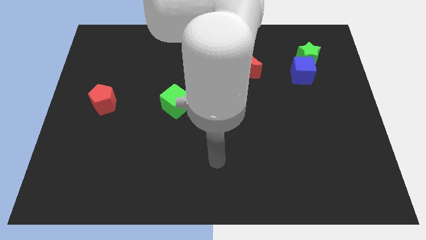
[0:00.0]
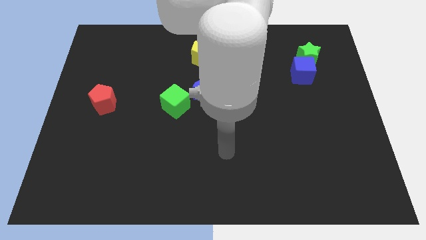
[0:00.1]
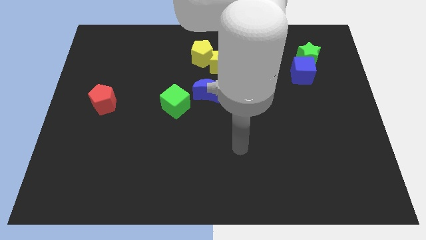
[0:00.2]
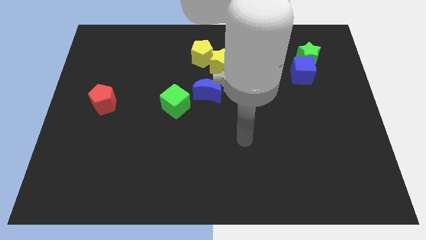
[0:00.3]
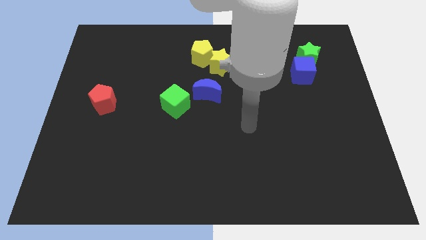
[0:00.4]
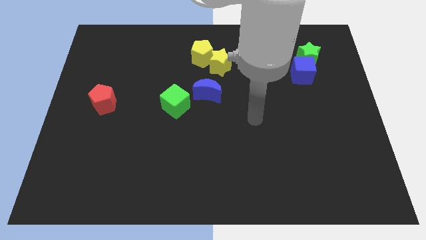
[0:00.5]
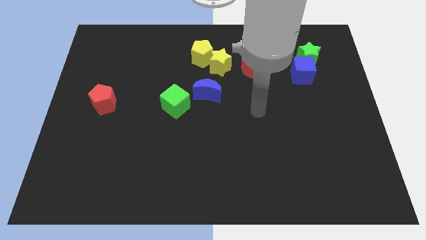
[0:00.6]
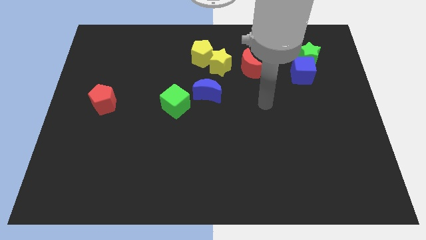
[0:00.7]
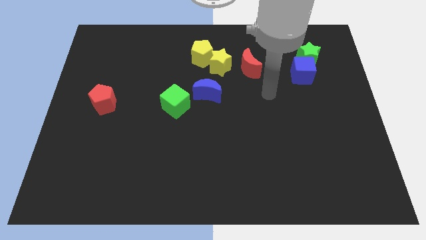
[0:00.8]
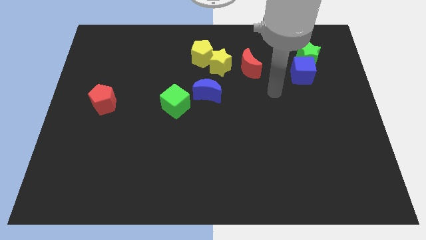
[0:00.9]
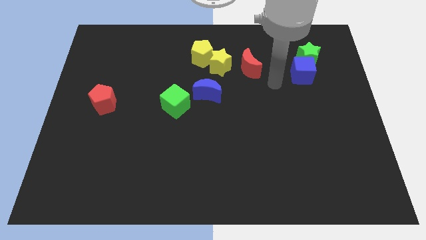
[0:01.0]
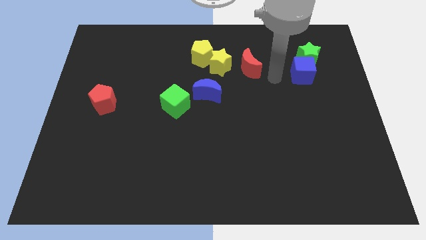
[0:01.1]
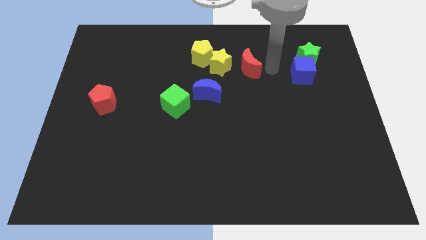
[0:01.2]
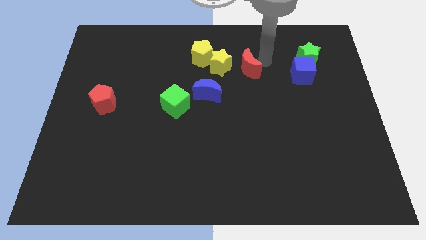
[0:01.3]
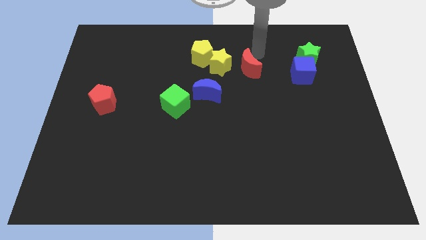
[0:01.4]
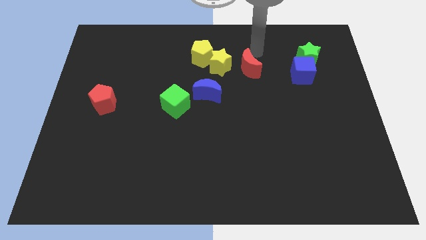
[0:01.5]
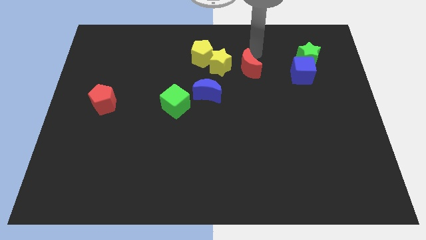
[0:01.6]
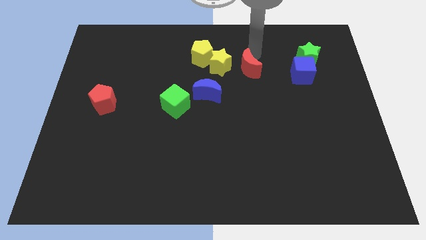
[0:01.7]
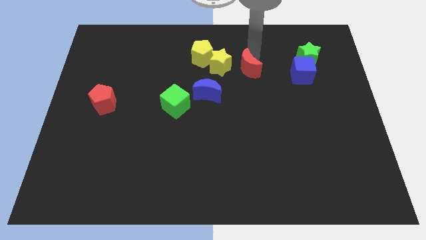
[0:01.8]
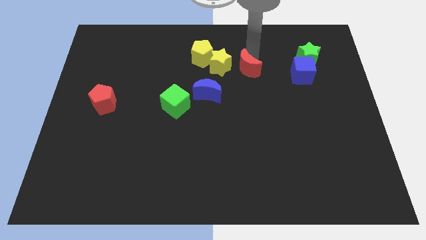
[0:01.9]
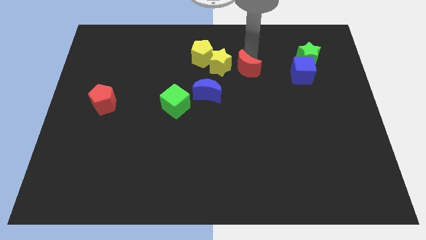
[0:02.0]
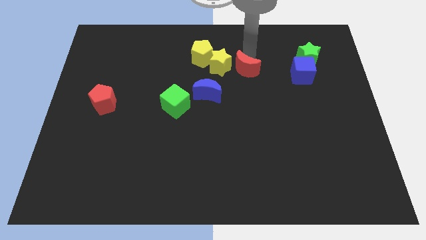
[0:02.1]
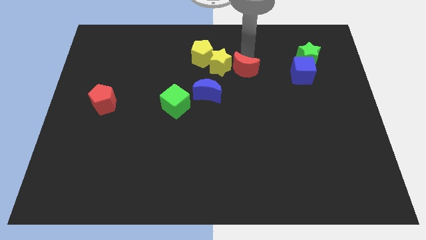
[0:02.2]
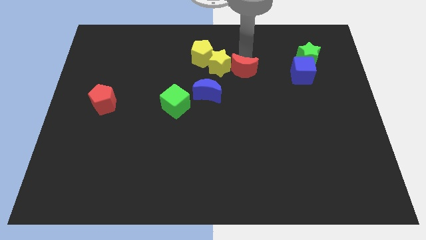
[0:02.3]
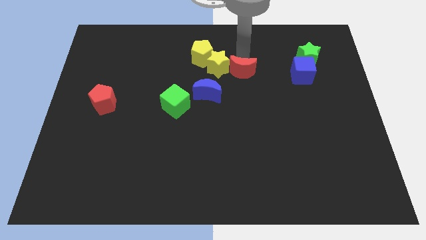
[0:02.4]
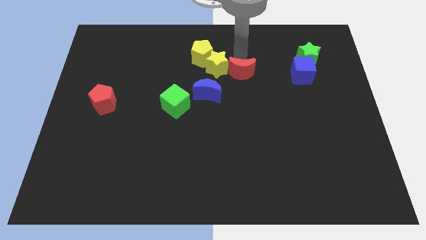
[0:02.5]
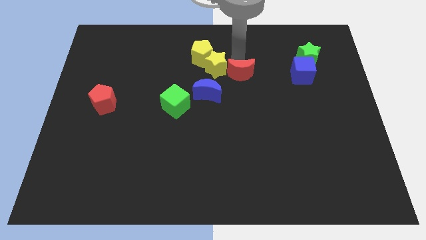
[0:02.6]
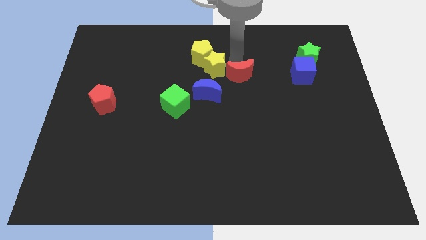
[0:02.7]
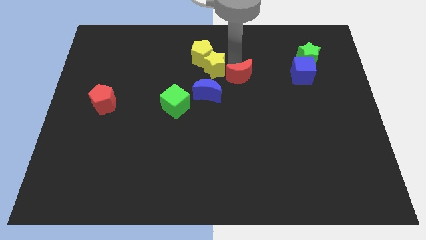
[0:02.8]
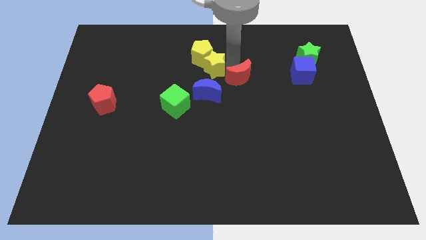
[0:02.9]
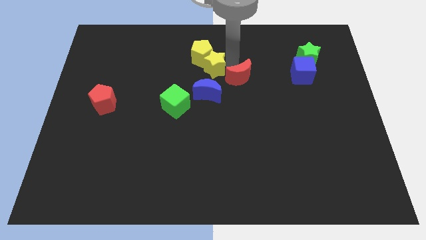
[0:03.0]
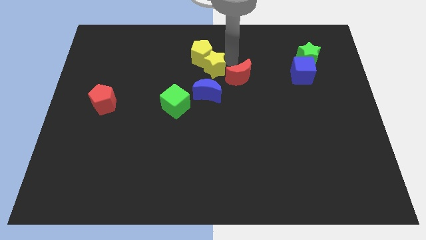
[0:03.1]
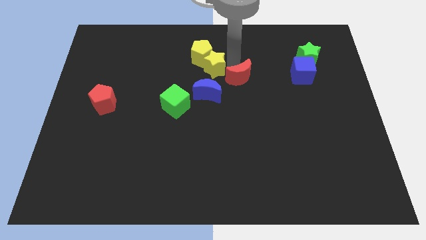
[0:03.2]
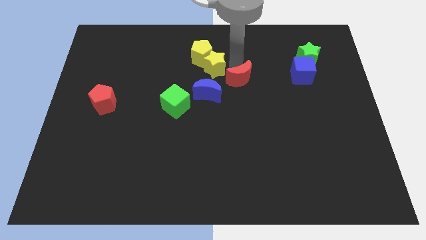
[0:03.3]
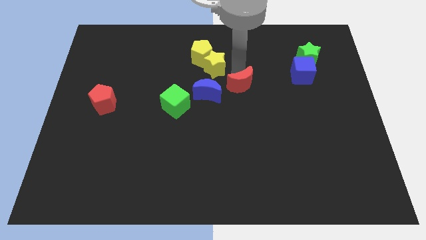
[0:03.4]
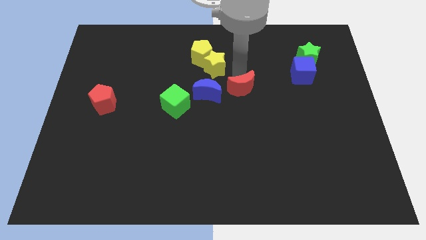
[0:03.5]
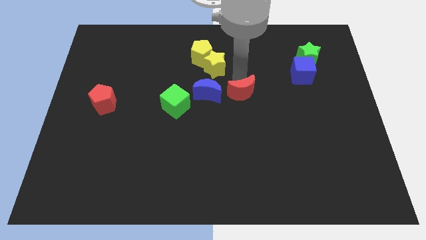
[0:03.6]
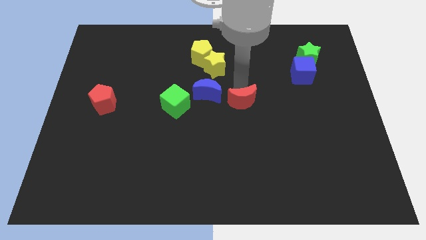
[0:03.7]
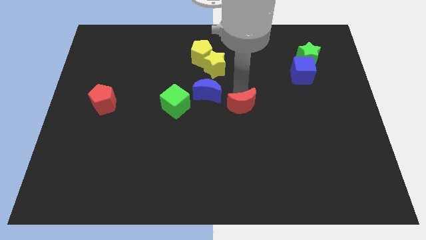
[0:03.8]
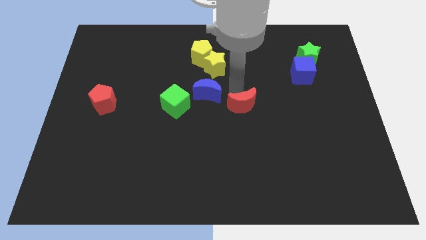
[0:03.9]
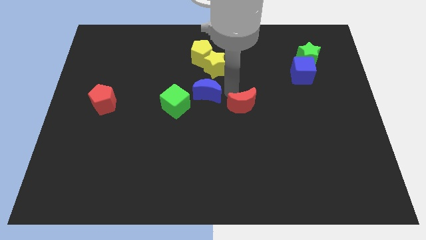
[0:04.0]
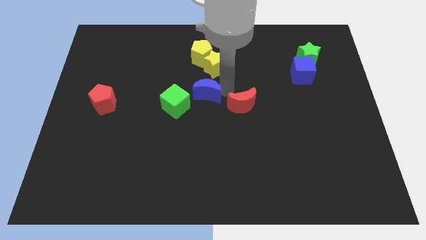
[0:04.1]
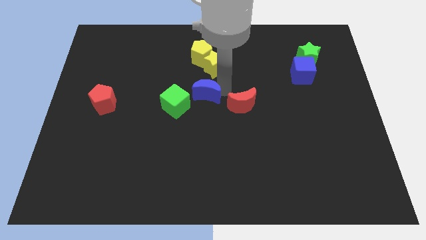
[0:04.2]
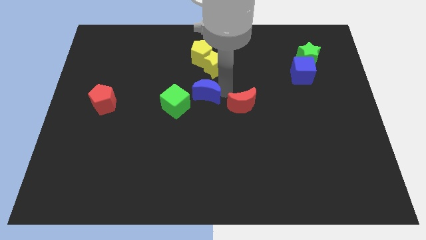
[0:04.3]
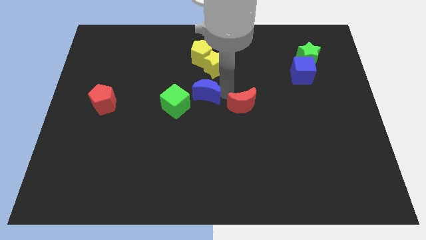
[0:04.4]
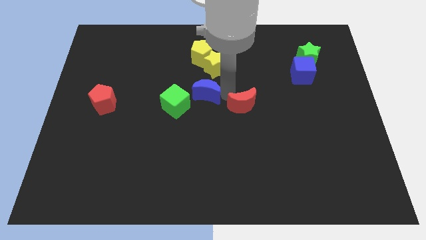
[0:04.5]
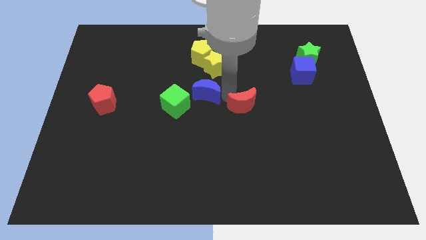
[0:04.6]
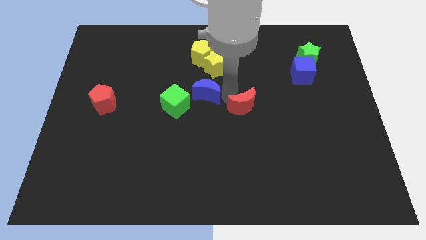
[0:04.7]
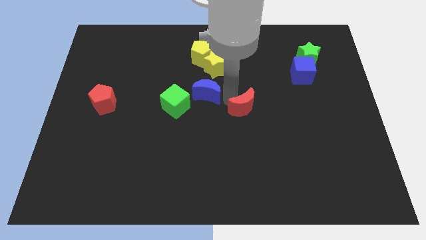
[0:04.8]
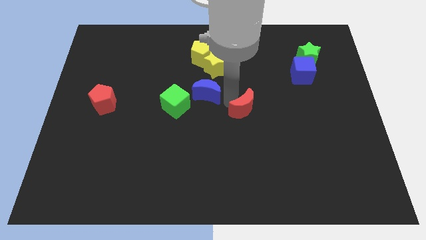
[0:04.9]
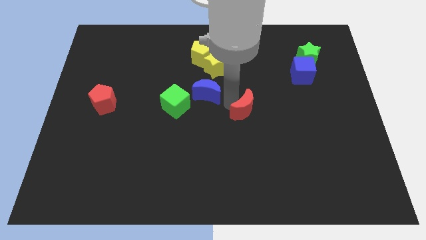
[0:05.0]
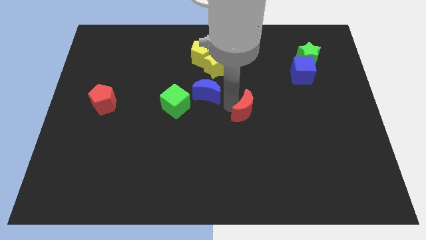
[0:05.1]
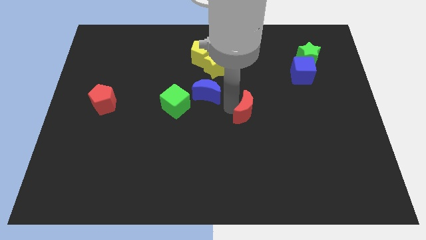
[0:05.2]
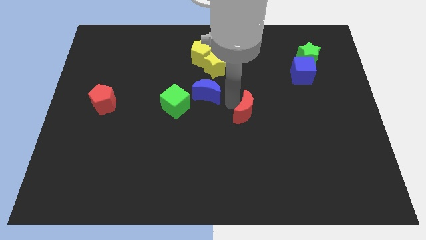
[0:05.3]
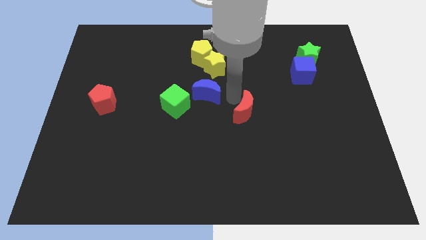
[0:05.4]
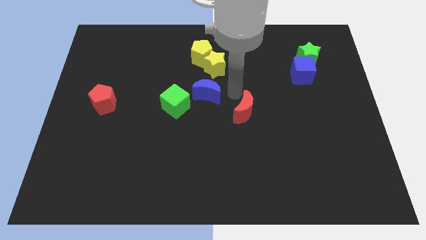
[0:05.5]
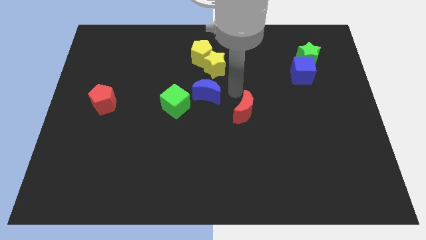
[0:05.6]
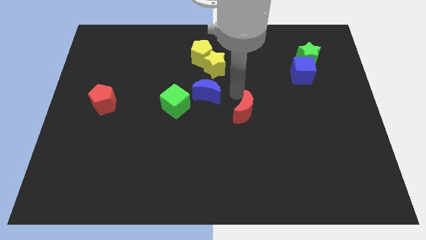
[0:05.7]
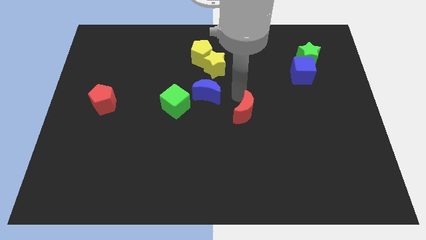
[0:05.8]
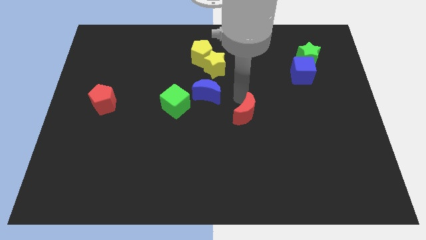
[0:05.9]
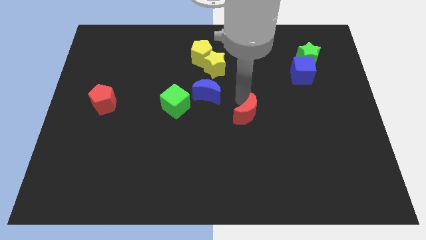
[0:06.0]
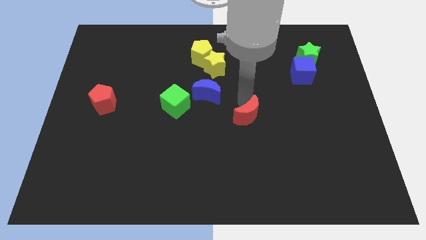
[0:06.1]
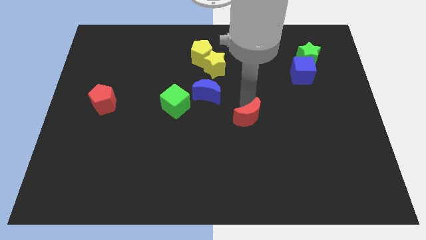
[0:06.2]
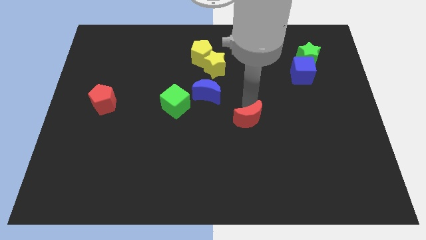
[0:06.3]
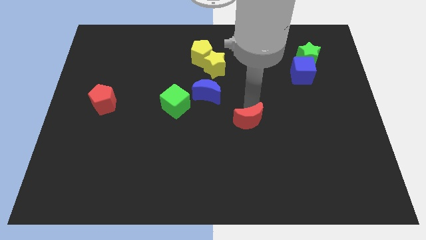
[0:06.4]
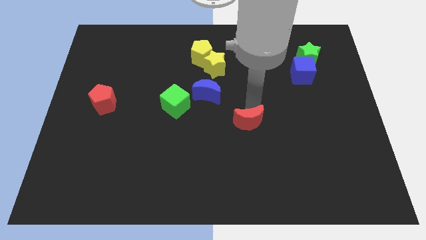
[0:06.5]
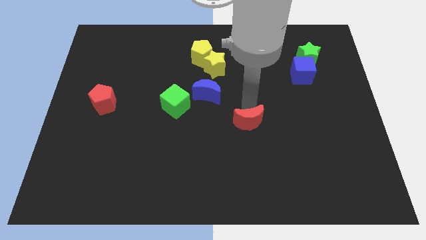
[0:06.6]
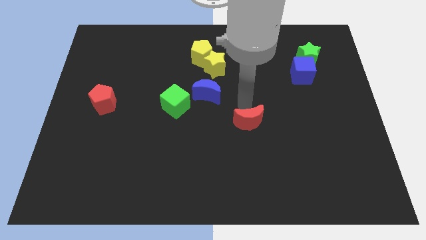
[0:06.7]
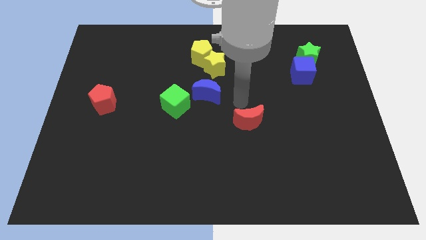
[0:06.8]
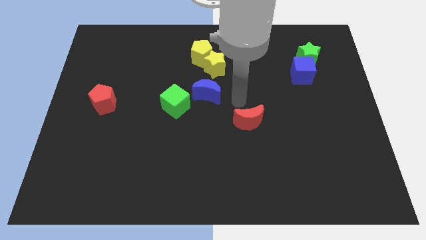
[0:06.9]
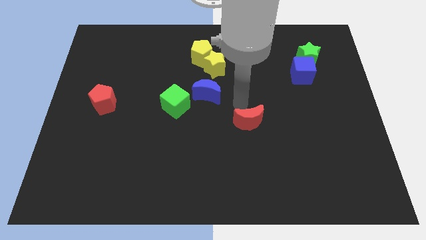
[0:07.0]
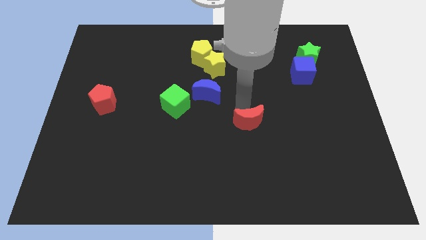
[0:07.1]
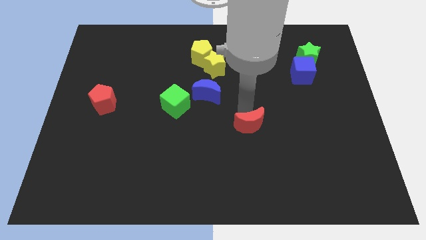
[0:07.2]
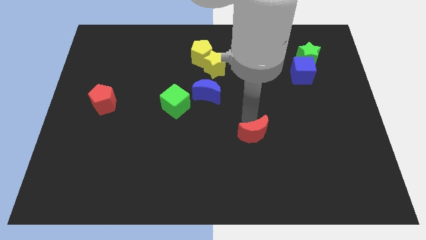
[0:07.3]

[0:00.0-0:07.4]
move the red moon down

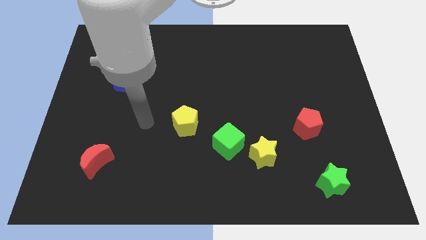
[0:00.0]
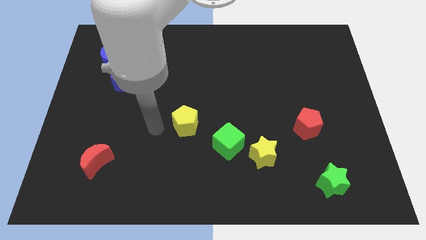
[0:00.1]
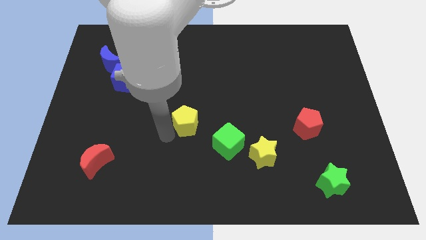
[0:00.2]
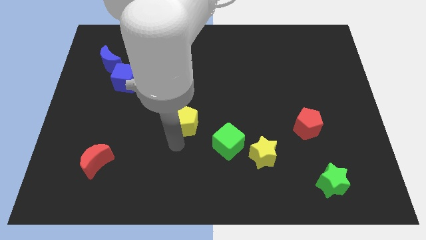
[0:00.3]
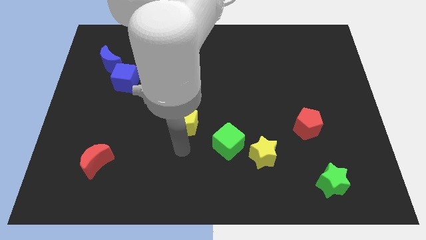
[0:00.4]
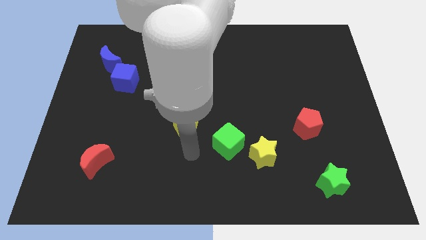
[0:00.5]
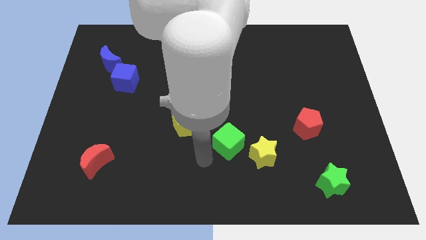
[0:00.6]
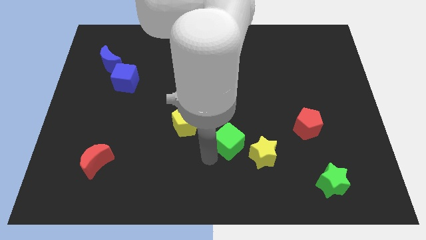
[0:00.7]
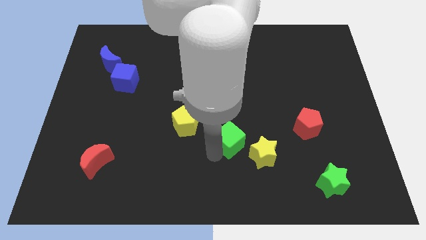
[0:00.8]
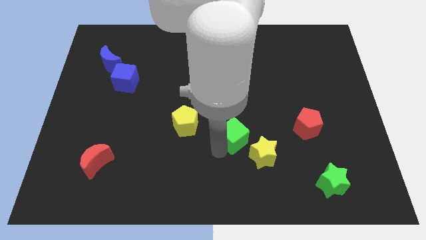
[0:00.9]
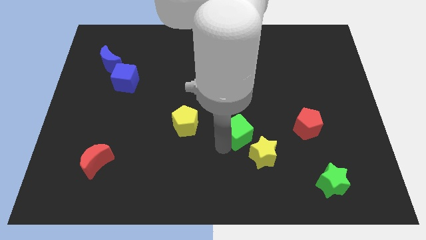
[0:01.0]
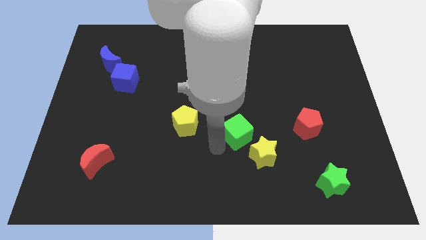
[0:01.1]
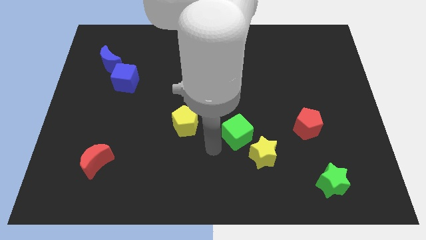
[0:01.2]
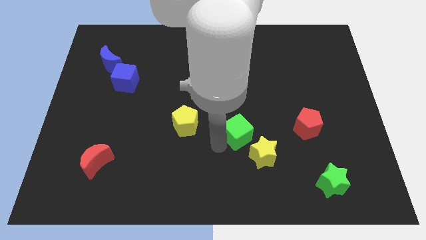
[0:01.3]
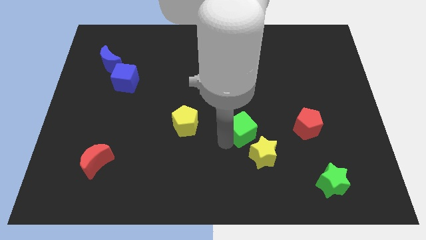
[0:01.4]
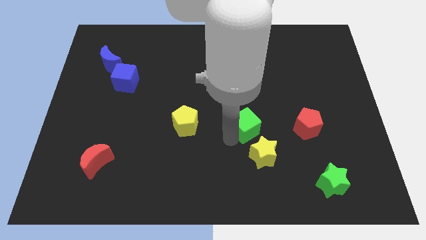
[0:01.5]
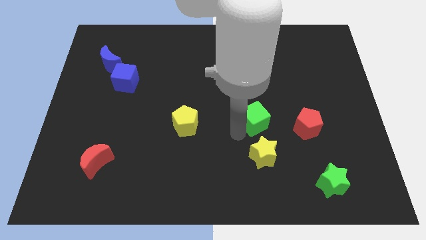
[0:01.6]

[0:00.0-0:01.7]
slide the green cube upwards and right diagonally slightly
